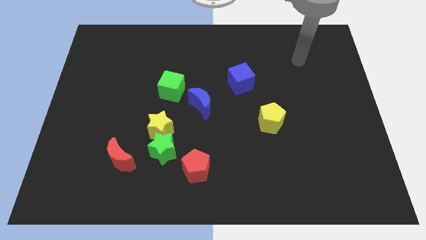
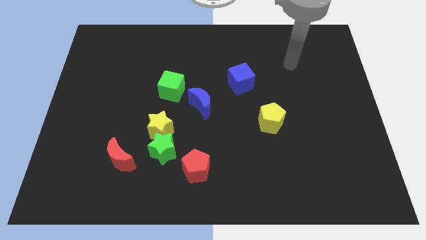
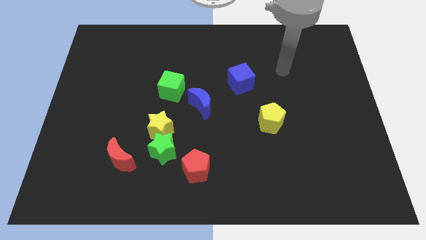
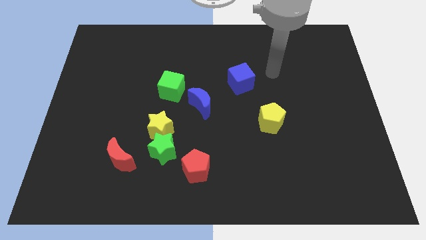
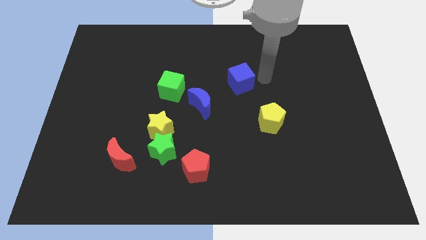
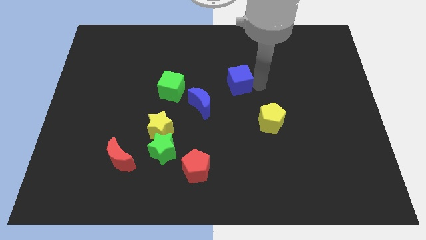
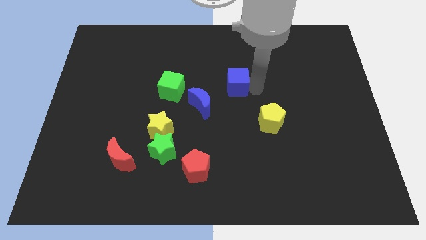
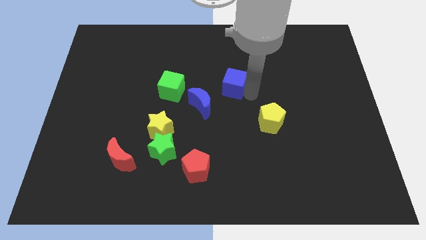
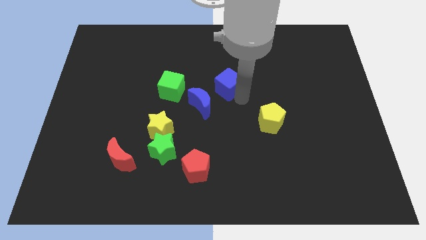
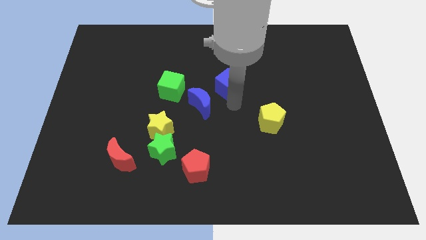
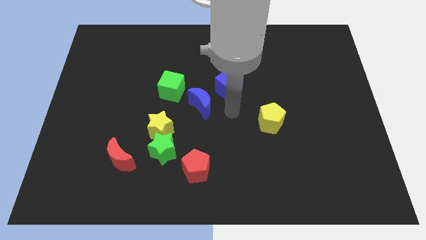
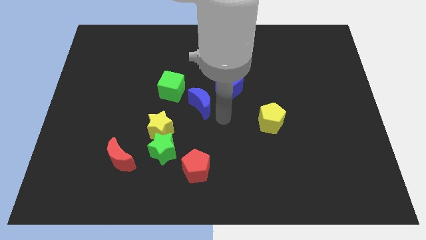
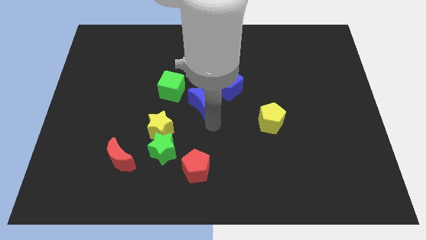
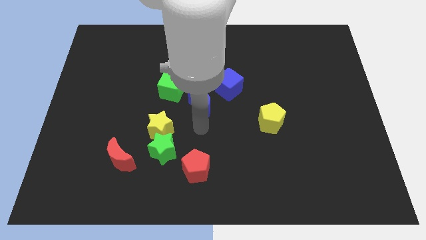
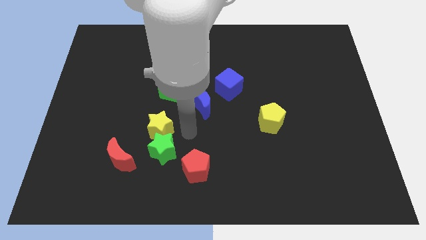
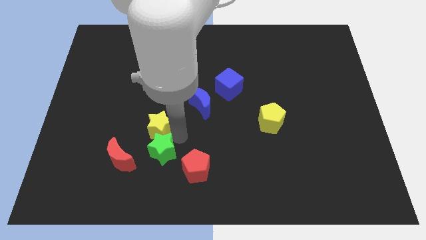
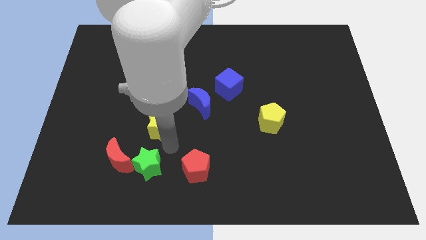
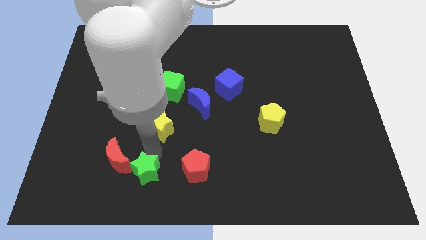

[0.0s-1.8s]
pull the yellow star apart from the green star

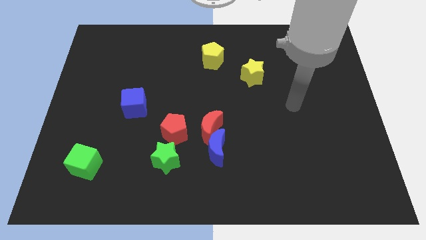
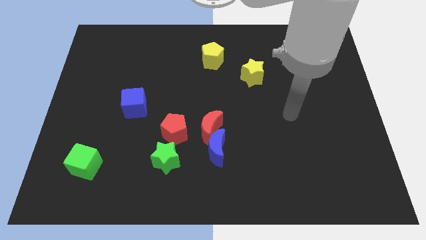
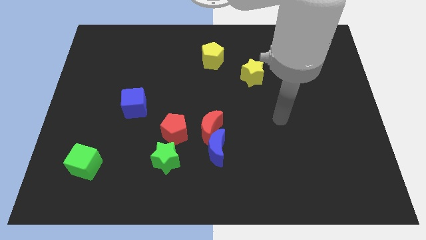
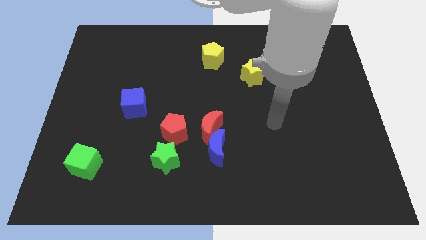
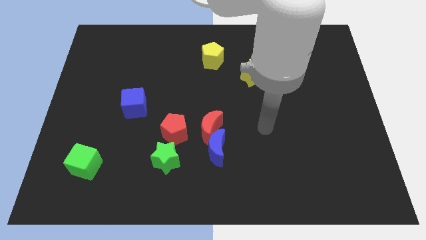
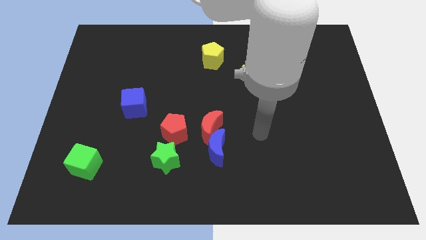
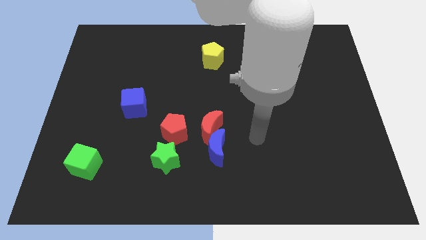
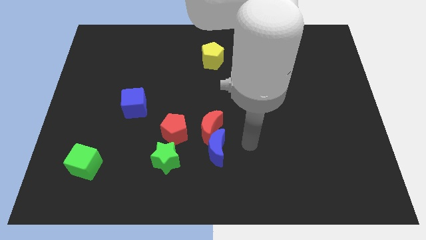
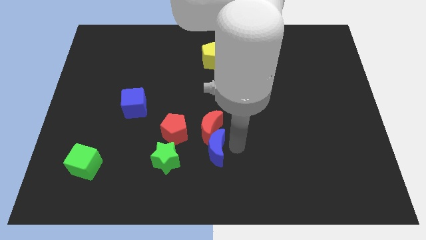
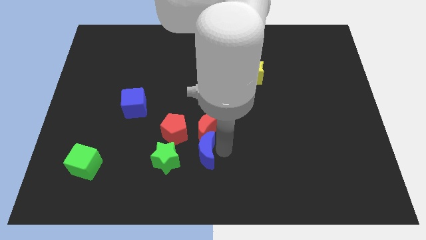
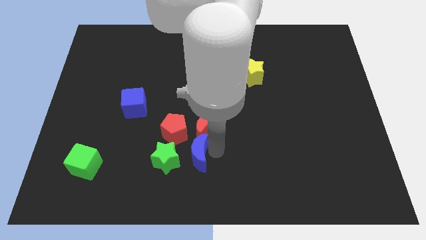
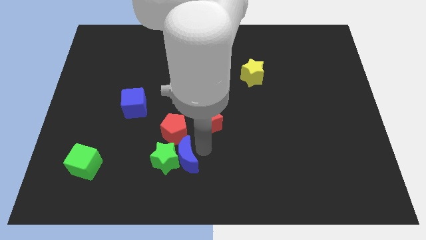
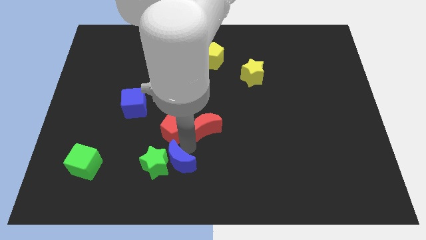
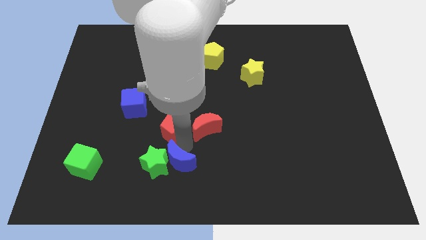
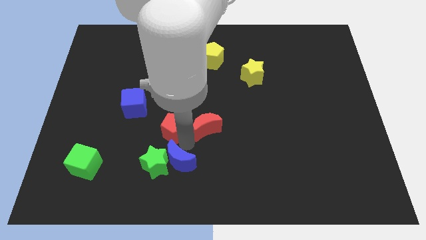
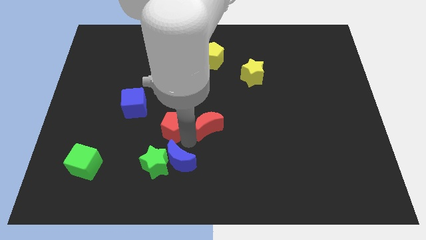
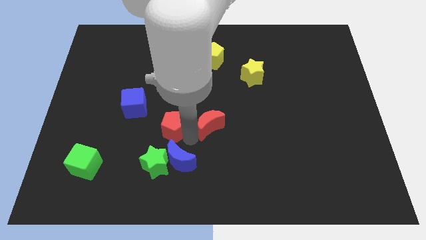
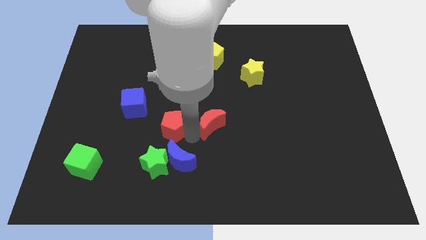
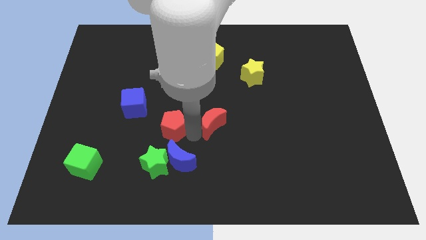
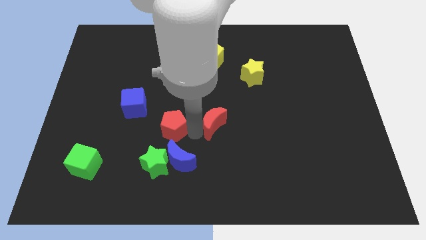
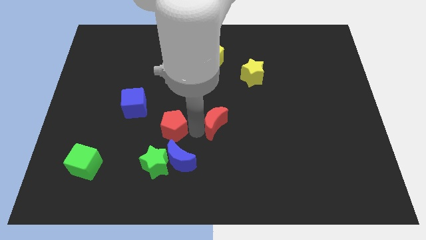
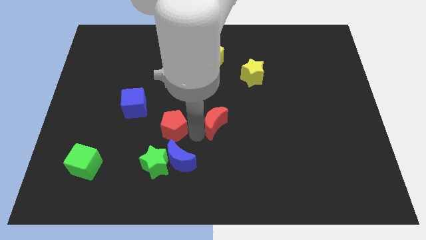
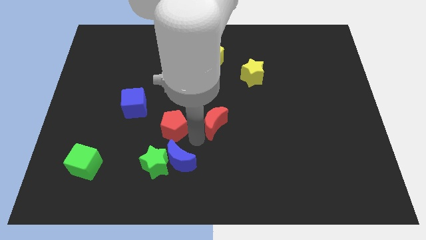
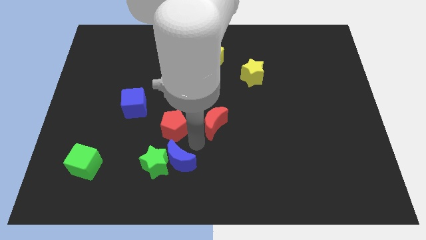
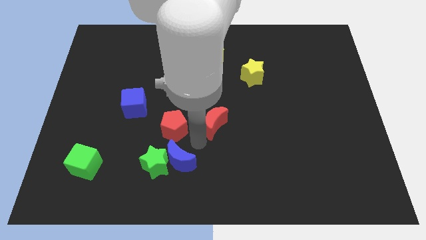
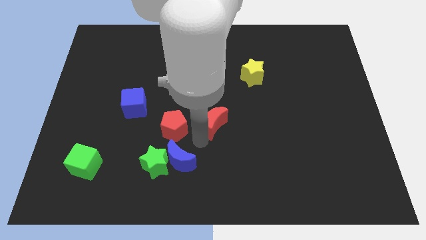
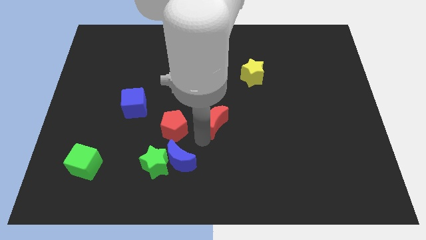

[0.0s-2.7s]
move the red moon away from the blue moon and red pentagon

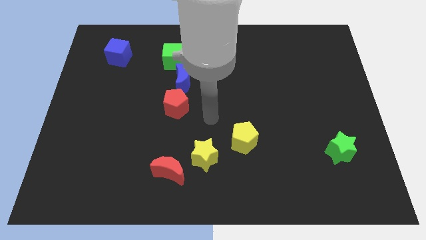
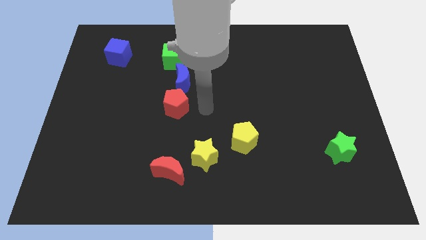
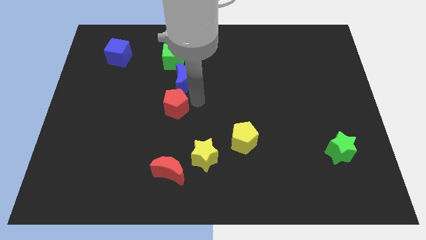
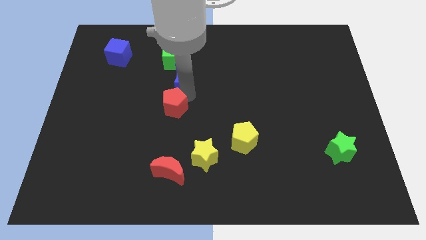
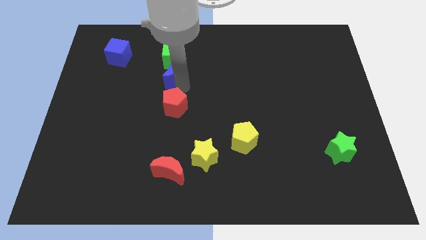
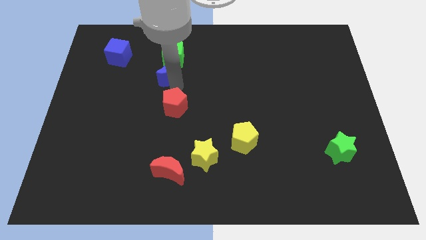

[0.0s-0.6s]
separate the red pentagon from the blue moon

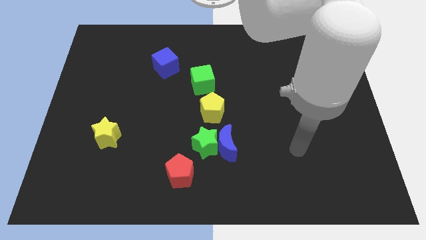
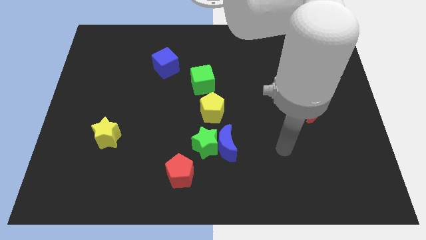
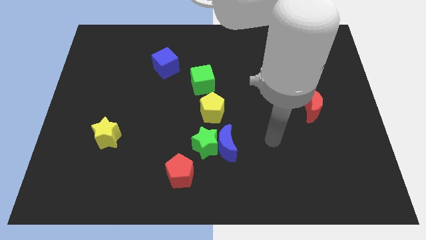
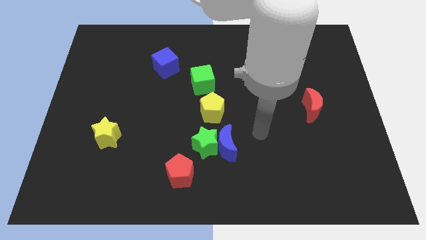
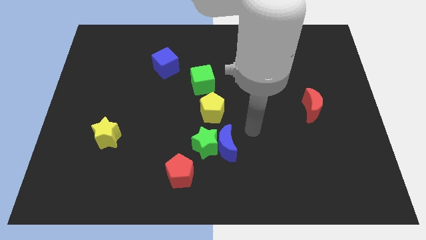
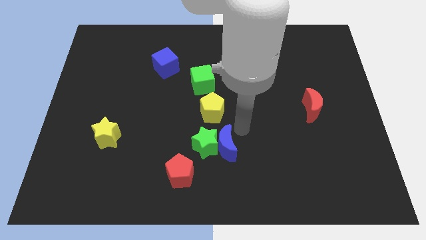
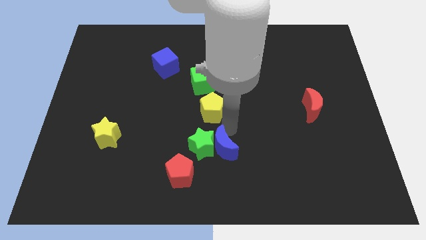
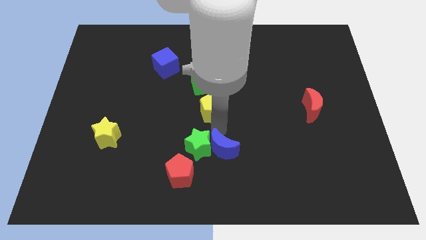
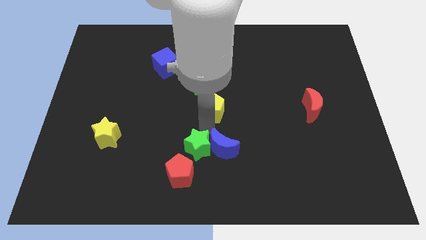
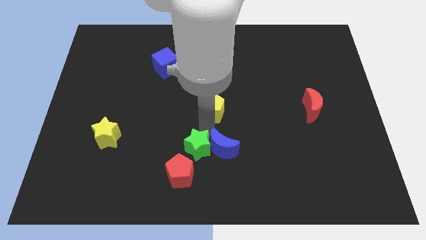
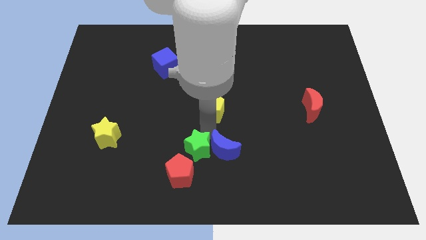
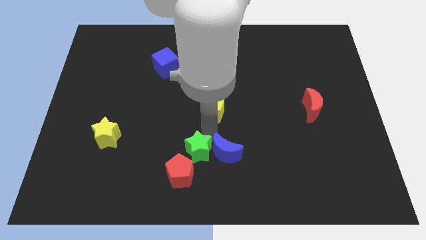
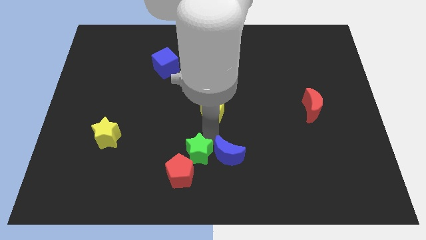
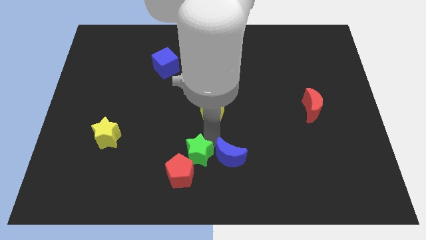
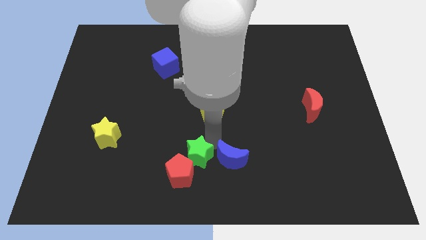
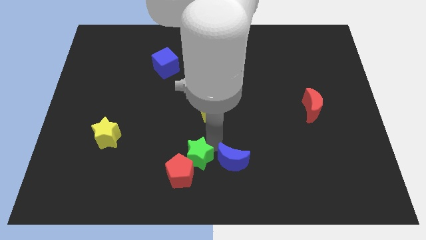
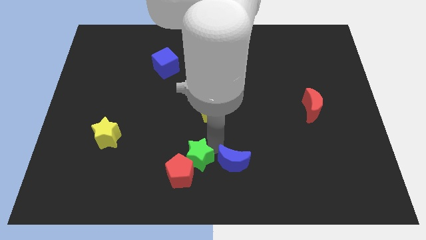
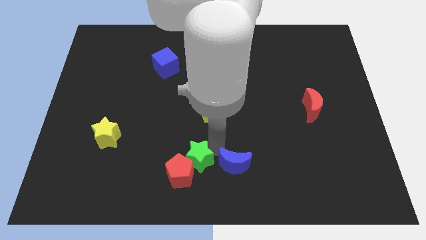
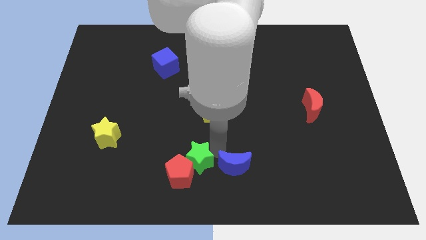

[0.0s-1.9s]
move the blue moon away from the green star and yellow pentagon

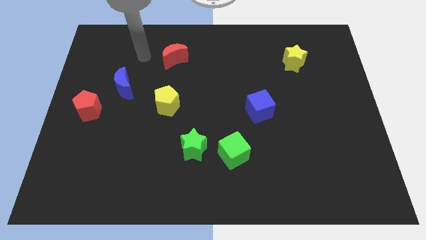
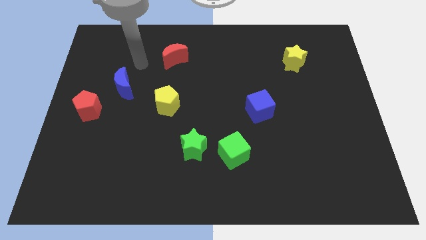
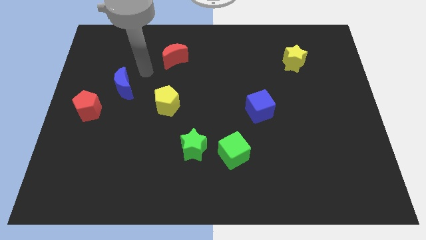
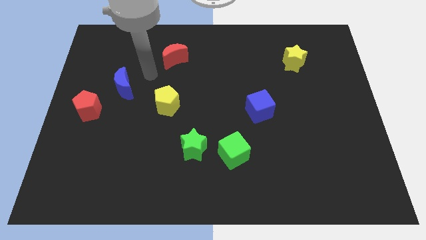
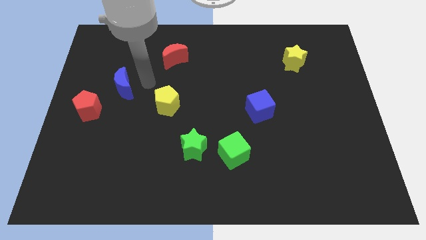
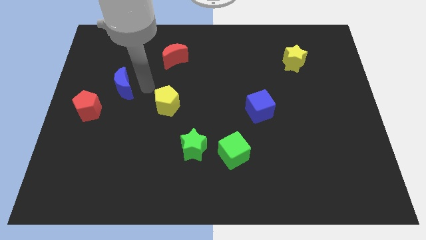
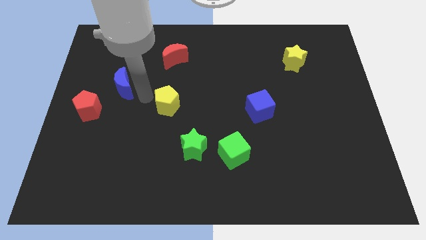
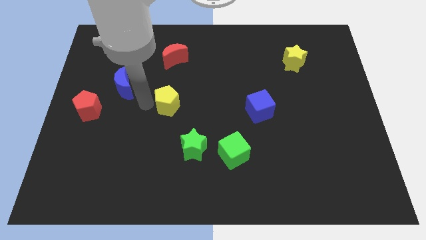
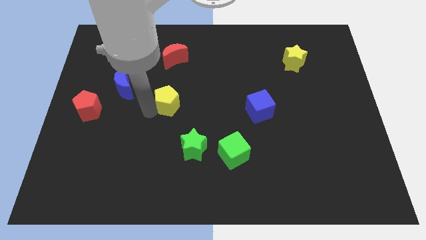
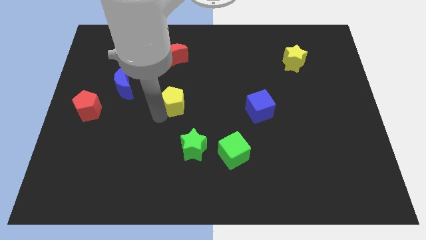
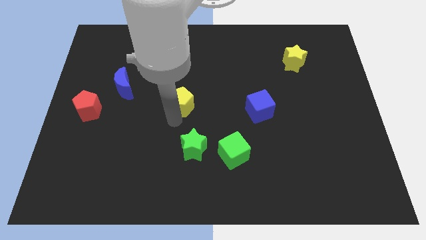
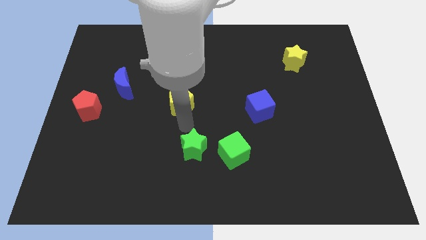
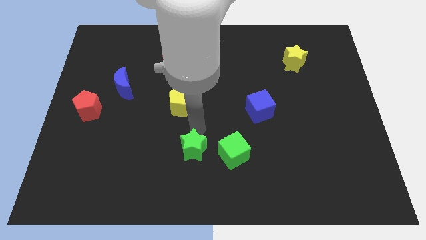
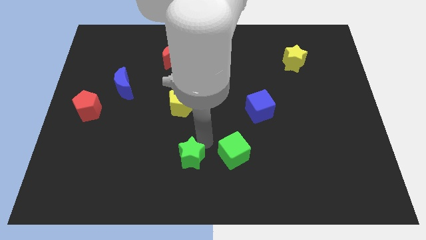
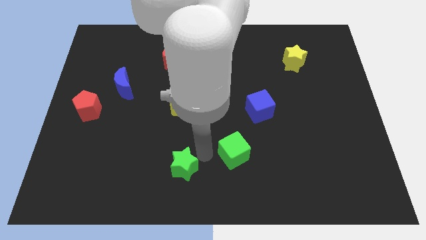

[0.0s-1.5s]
separate the green cube from the green star

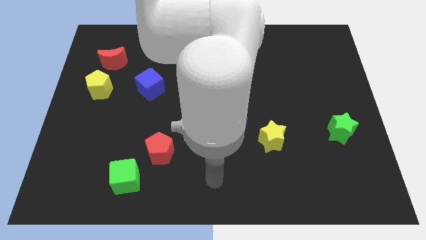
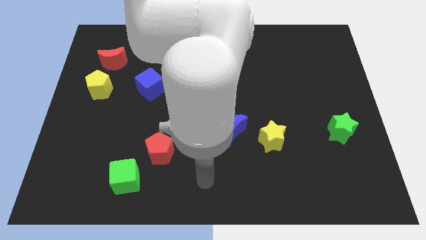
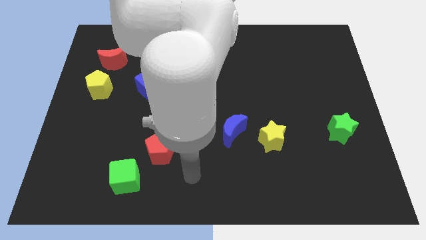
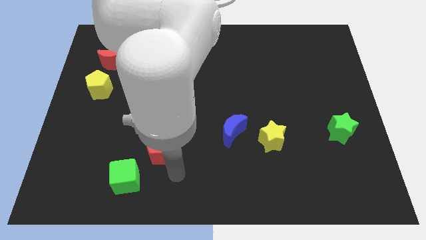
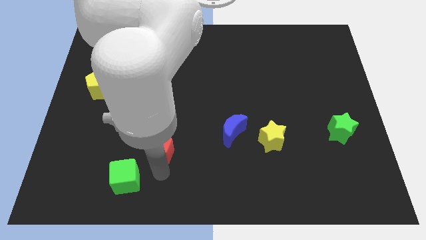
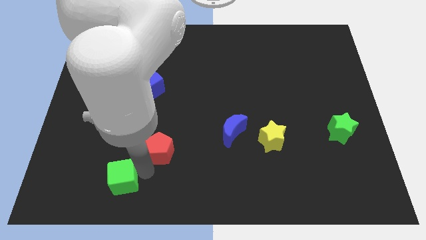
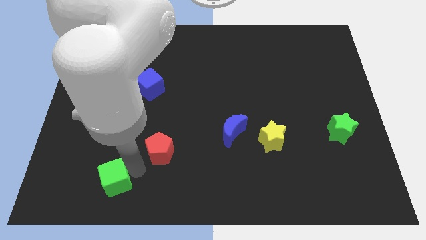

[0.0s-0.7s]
pull the red pentagon apart from the green cube

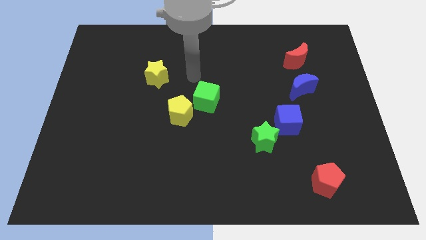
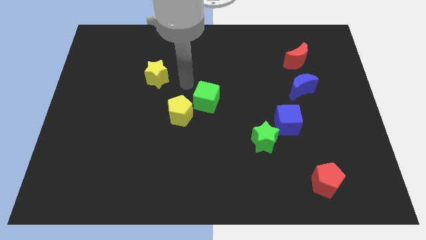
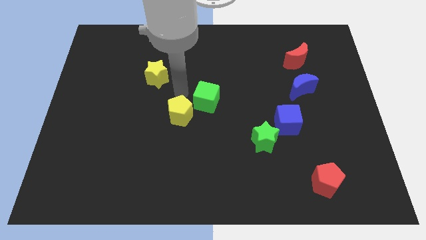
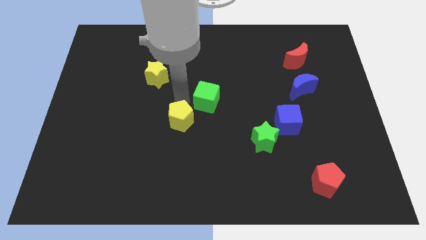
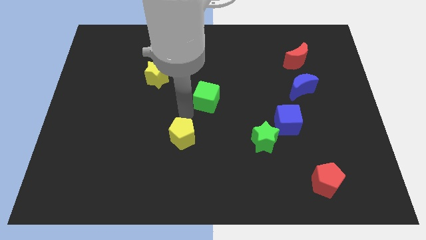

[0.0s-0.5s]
separate the green cube from the yellow pentagon
